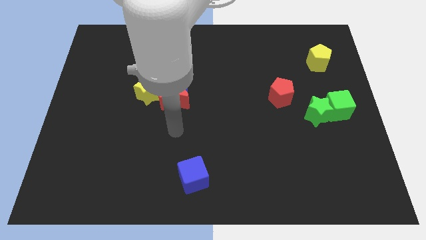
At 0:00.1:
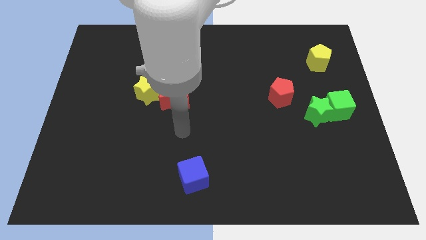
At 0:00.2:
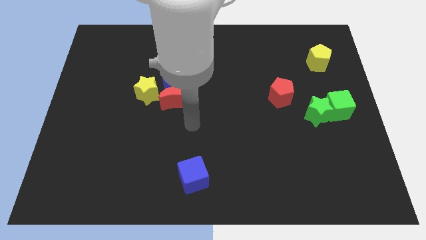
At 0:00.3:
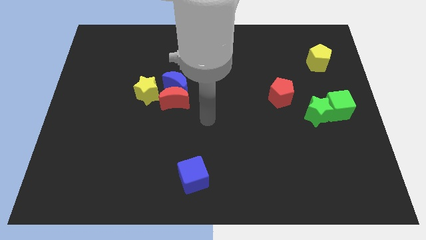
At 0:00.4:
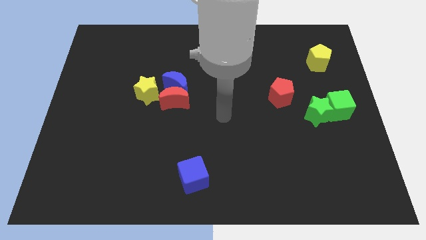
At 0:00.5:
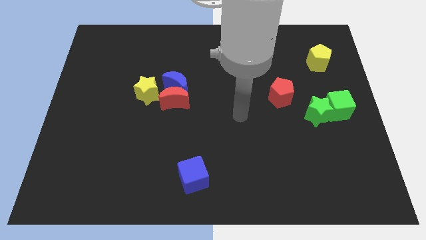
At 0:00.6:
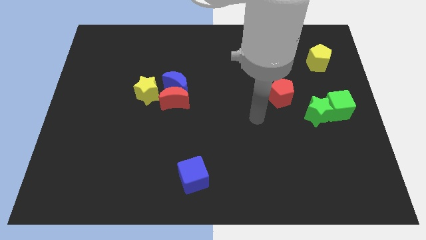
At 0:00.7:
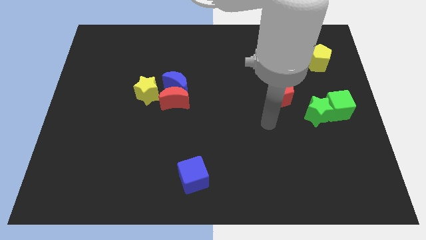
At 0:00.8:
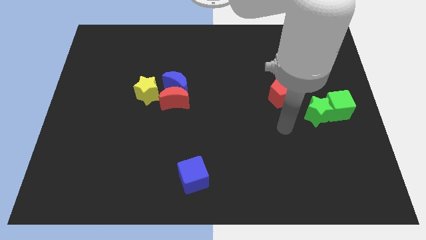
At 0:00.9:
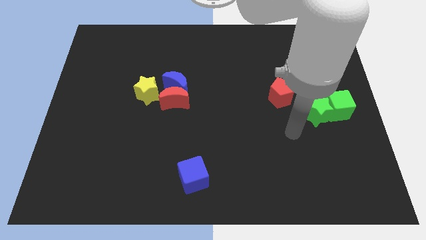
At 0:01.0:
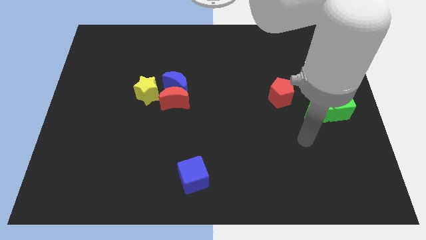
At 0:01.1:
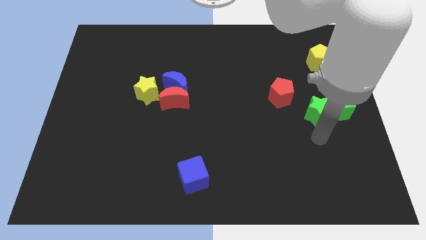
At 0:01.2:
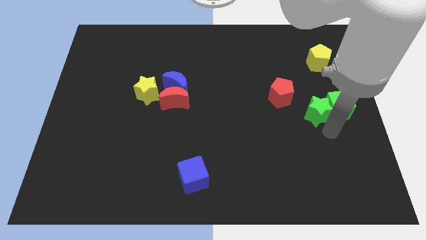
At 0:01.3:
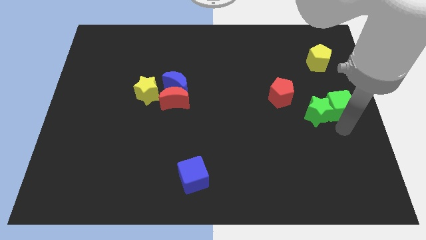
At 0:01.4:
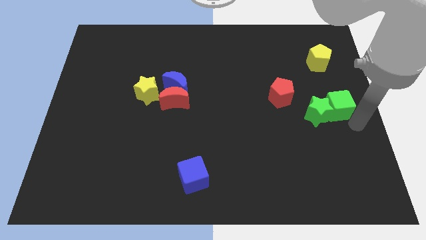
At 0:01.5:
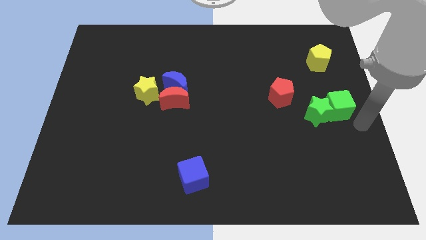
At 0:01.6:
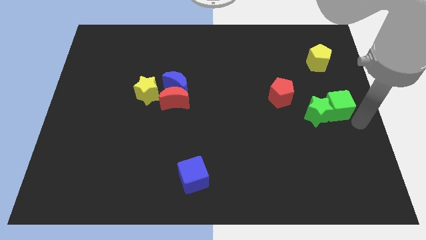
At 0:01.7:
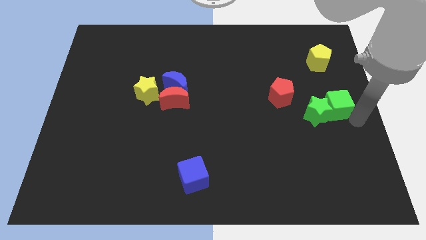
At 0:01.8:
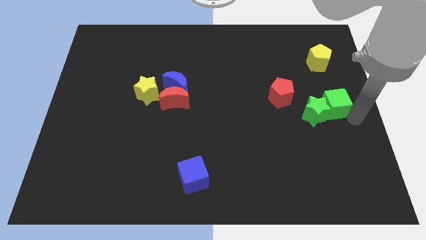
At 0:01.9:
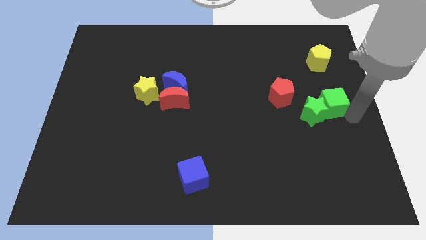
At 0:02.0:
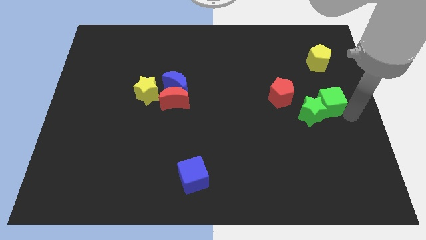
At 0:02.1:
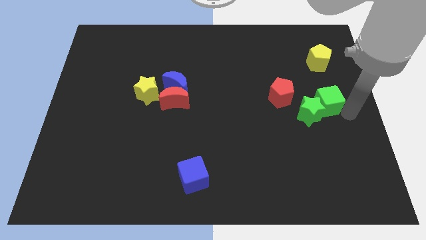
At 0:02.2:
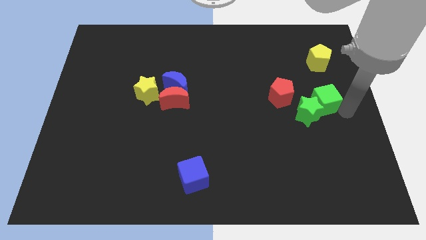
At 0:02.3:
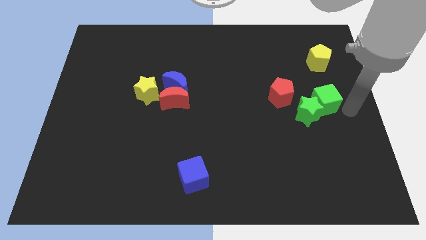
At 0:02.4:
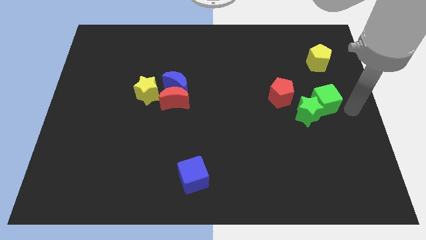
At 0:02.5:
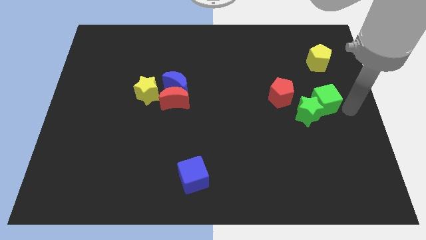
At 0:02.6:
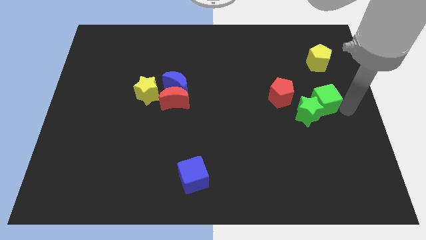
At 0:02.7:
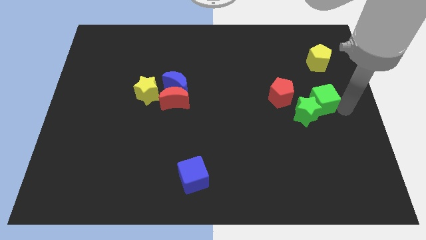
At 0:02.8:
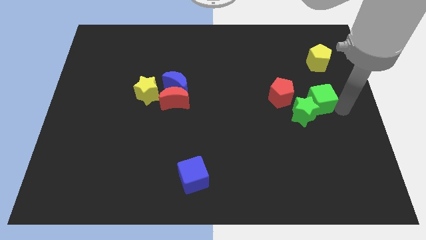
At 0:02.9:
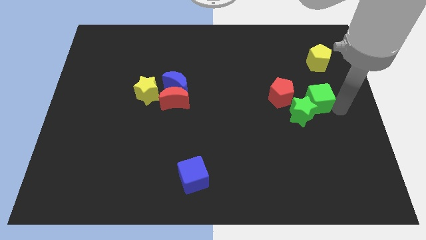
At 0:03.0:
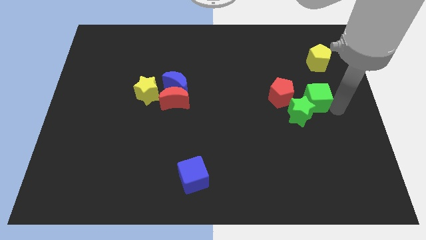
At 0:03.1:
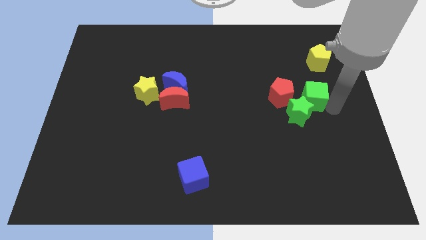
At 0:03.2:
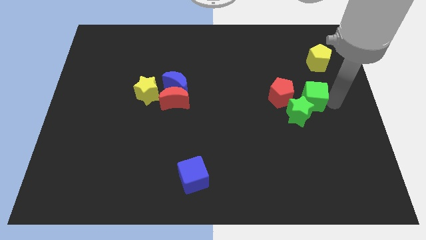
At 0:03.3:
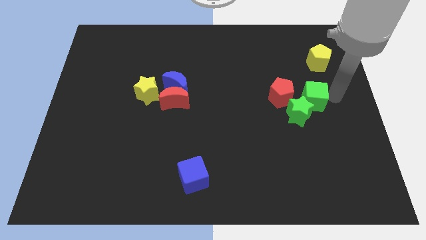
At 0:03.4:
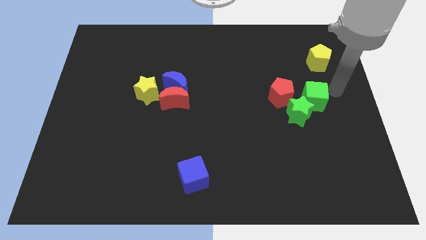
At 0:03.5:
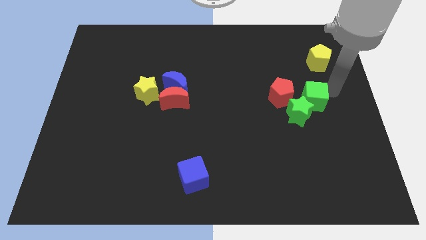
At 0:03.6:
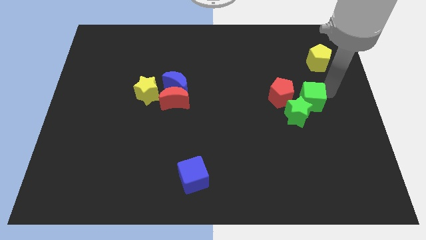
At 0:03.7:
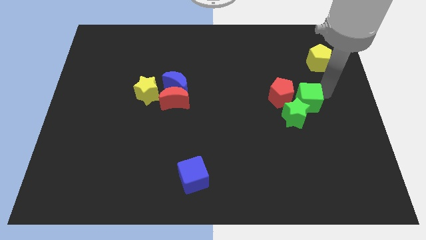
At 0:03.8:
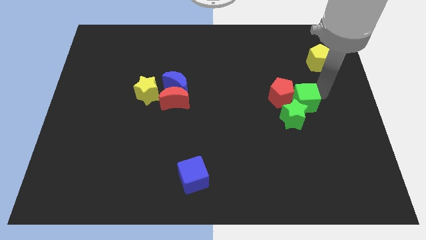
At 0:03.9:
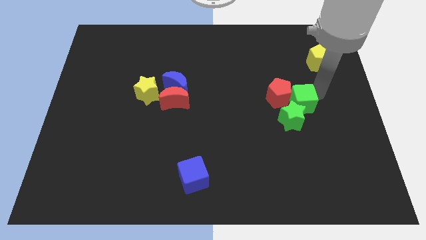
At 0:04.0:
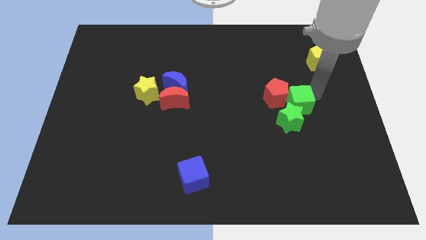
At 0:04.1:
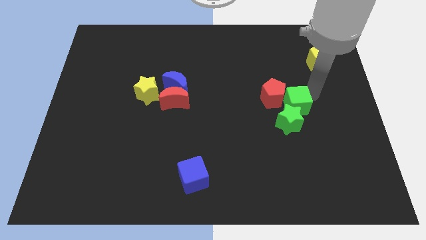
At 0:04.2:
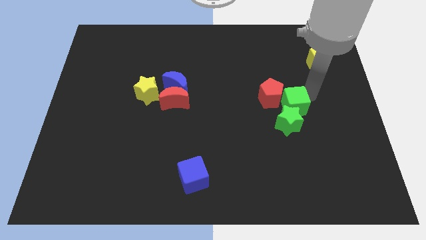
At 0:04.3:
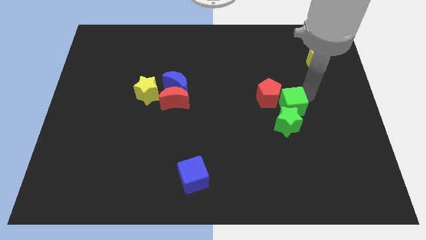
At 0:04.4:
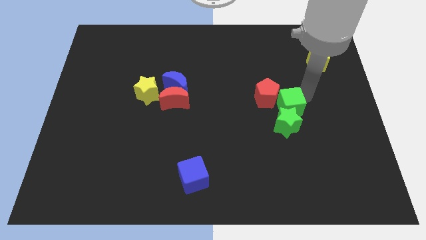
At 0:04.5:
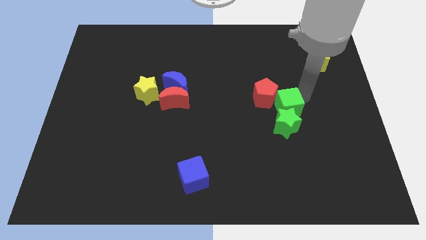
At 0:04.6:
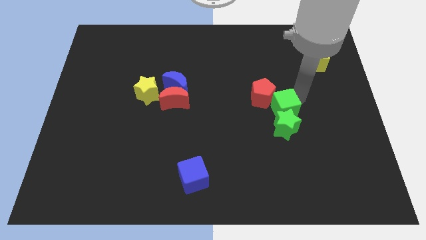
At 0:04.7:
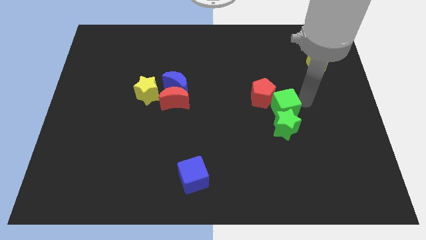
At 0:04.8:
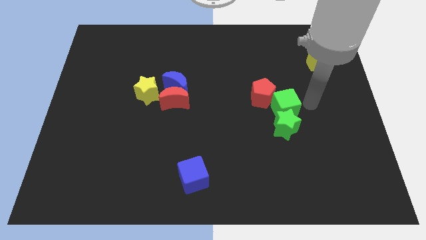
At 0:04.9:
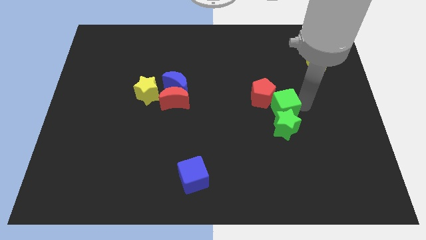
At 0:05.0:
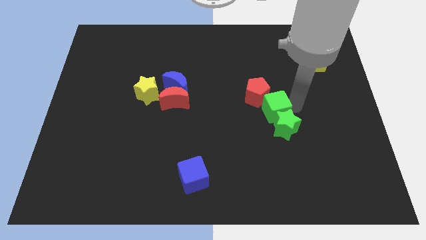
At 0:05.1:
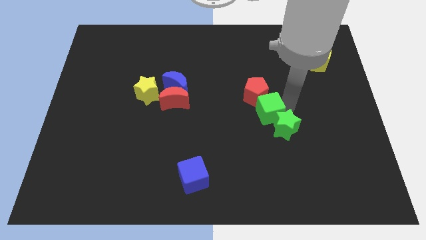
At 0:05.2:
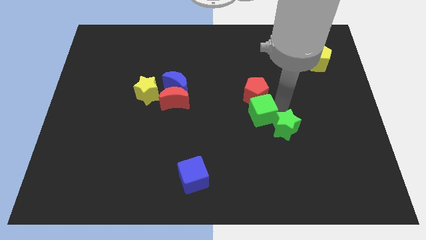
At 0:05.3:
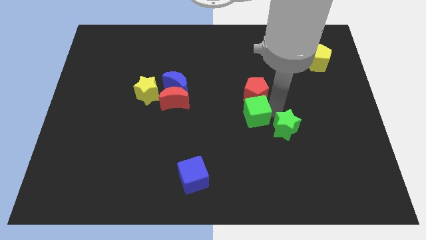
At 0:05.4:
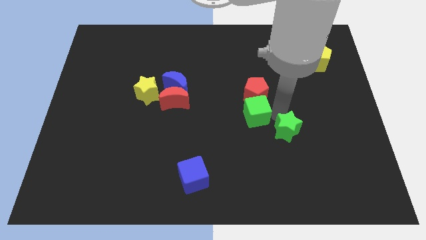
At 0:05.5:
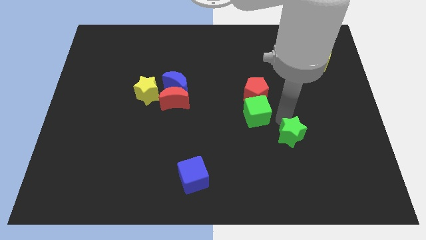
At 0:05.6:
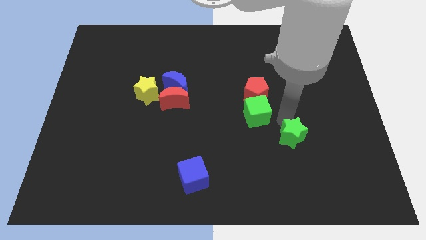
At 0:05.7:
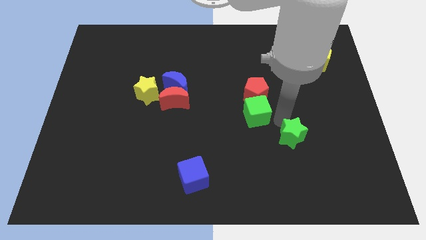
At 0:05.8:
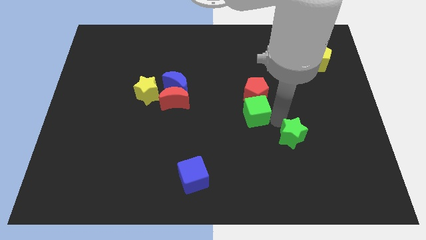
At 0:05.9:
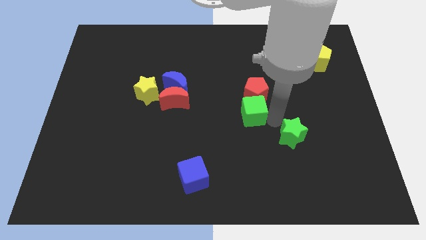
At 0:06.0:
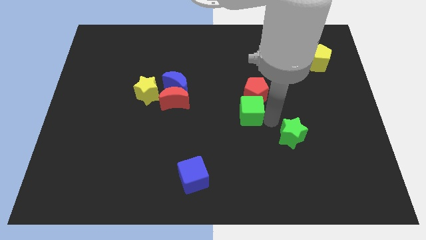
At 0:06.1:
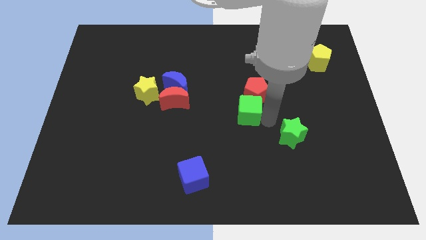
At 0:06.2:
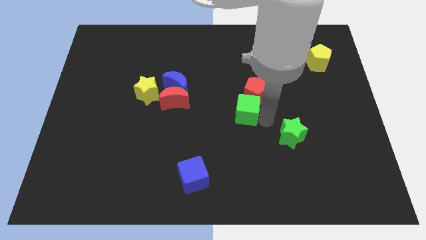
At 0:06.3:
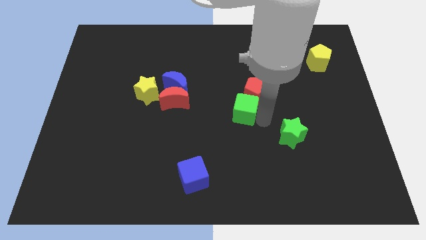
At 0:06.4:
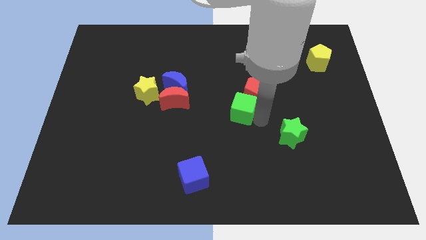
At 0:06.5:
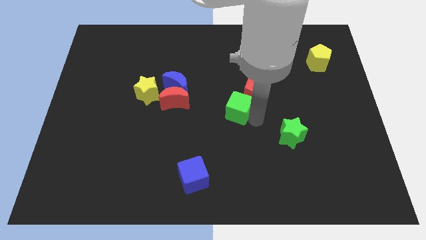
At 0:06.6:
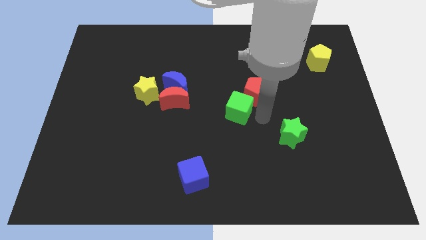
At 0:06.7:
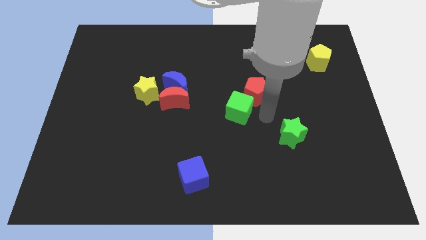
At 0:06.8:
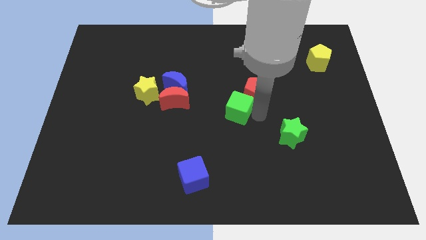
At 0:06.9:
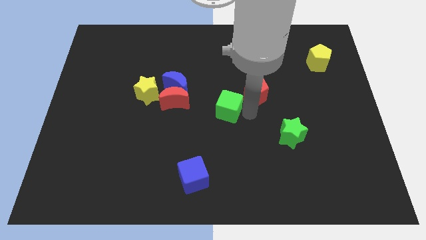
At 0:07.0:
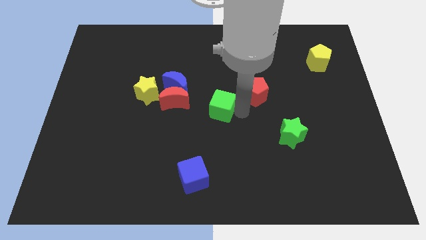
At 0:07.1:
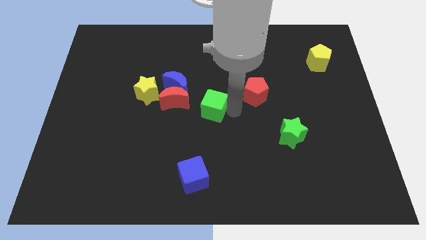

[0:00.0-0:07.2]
put the green cube to the bottom right side of the blue moon
